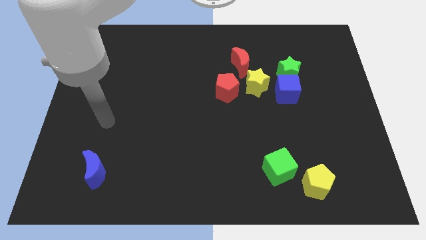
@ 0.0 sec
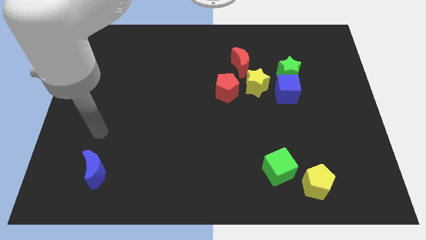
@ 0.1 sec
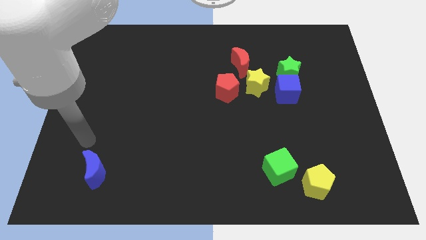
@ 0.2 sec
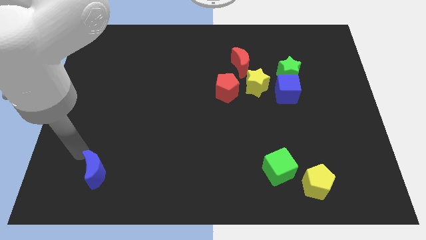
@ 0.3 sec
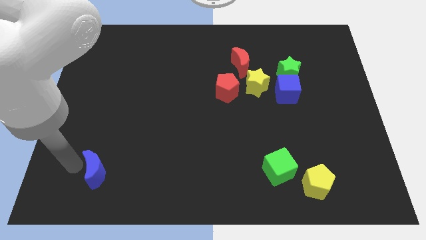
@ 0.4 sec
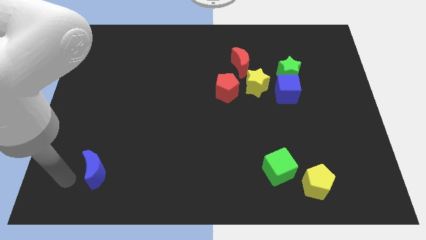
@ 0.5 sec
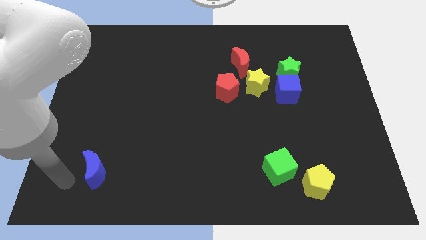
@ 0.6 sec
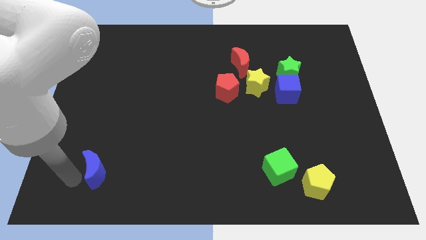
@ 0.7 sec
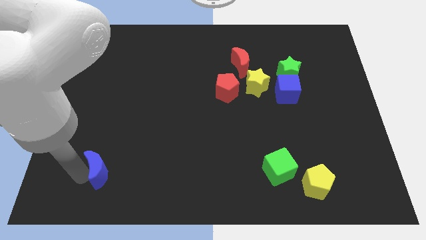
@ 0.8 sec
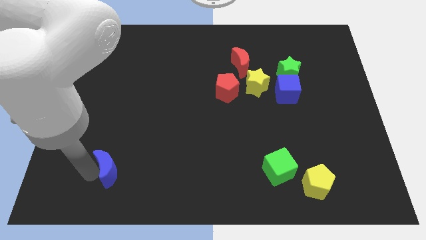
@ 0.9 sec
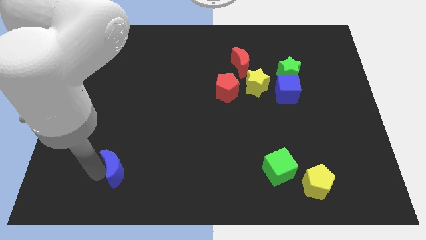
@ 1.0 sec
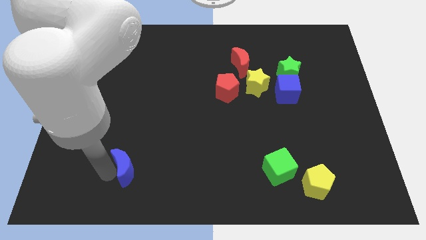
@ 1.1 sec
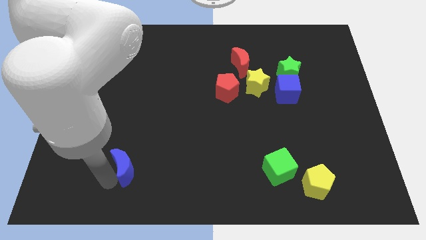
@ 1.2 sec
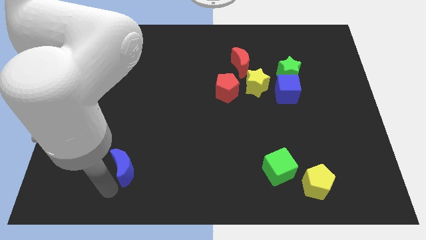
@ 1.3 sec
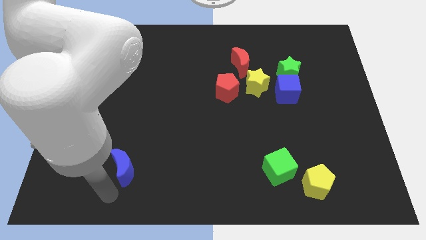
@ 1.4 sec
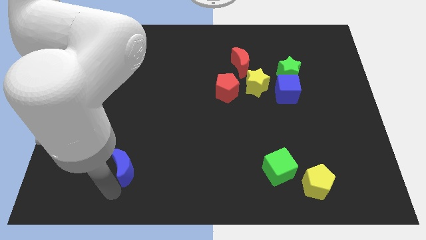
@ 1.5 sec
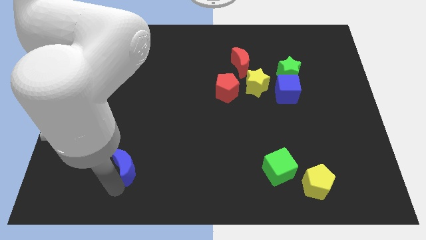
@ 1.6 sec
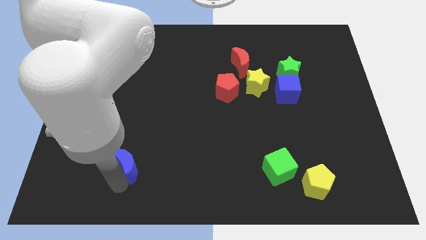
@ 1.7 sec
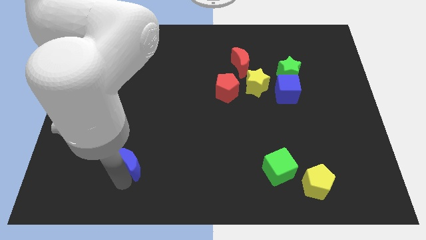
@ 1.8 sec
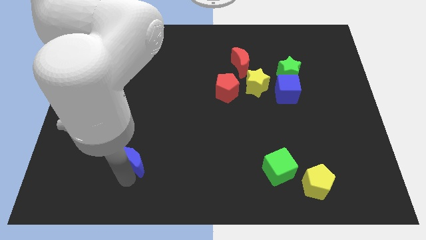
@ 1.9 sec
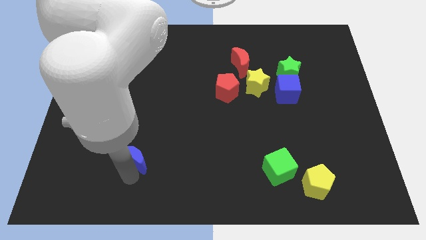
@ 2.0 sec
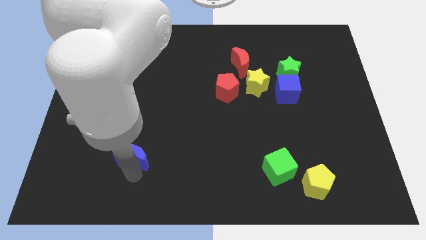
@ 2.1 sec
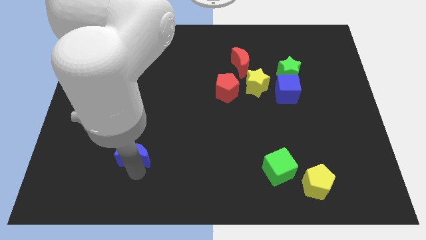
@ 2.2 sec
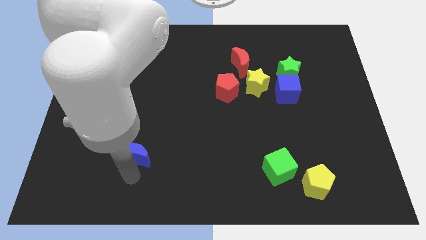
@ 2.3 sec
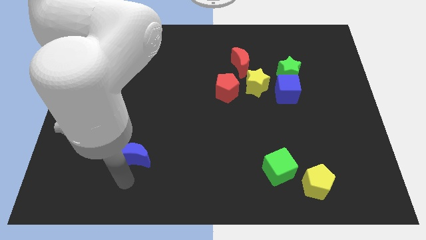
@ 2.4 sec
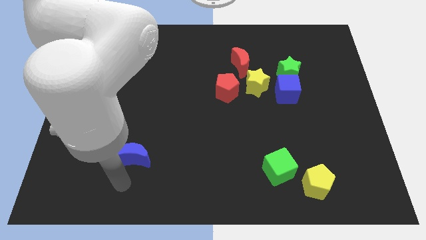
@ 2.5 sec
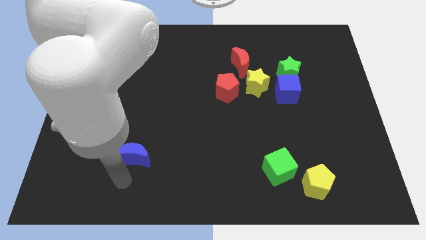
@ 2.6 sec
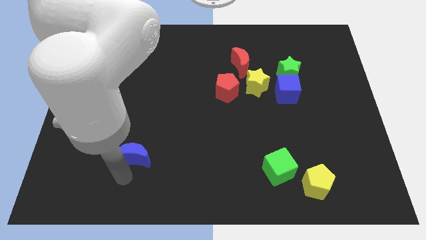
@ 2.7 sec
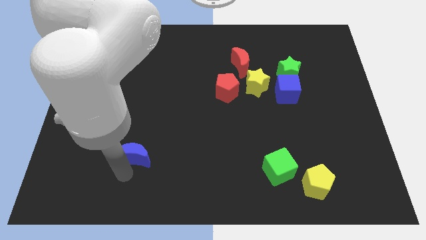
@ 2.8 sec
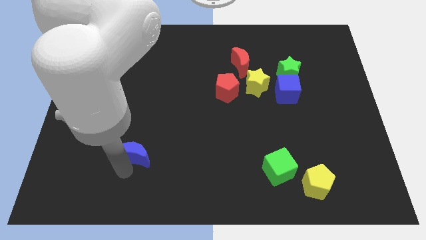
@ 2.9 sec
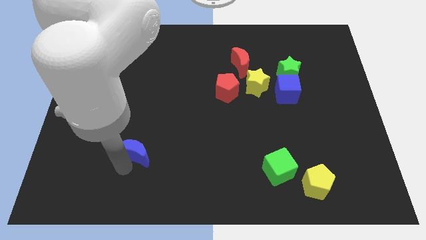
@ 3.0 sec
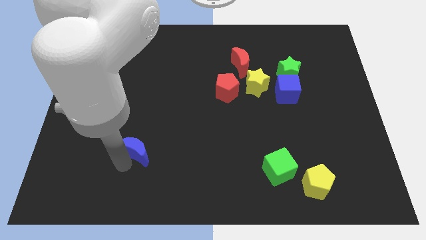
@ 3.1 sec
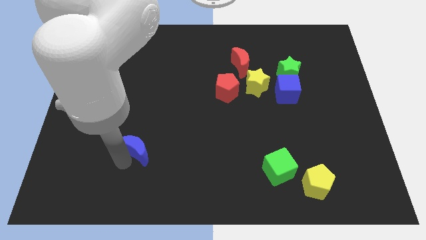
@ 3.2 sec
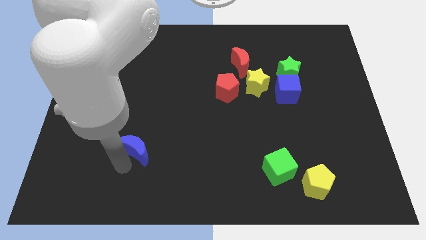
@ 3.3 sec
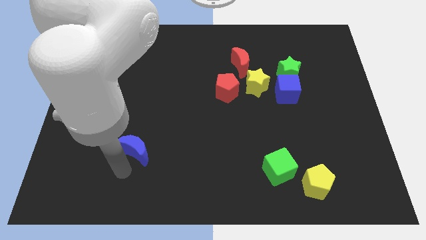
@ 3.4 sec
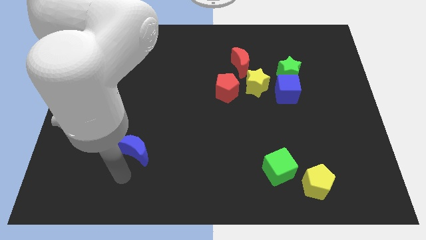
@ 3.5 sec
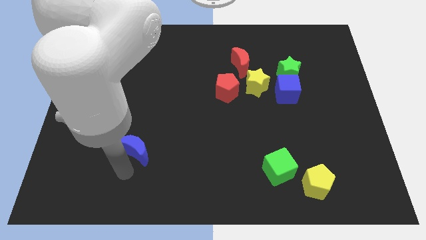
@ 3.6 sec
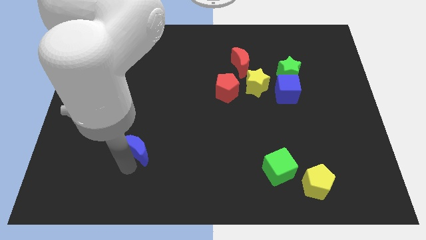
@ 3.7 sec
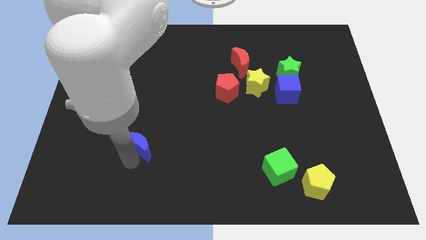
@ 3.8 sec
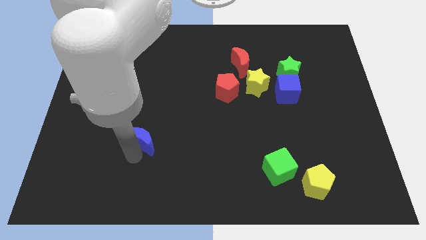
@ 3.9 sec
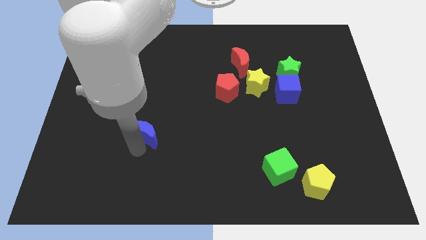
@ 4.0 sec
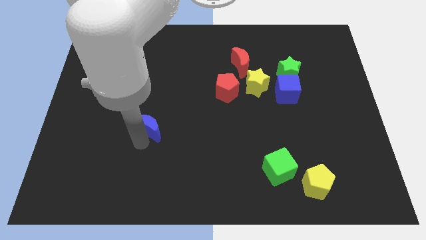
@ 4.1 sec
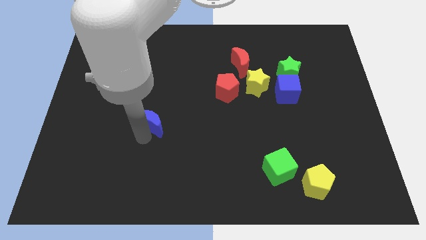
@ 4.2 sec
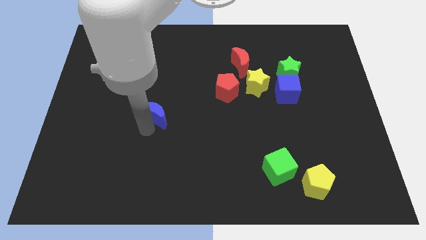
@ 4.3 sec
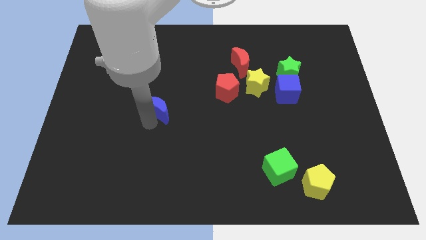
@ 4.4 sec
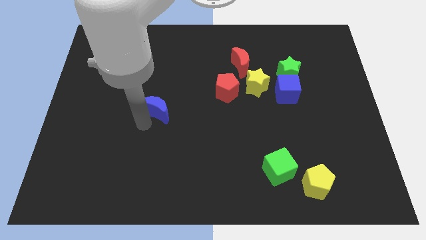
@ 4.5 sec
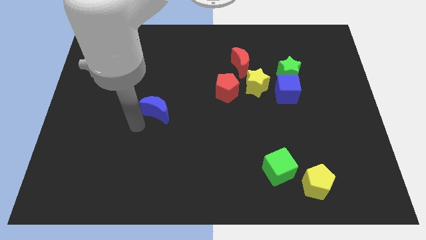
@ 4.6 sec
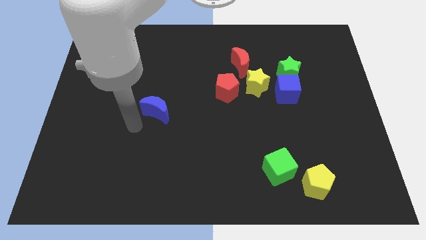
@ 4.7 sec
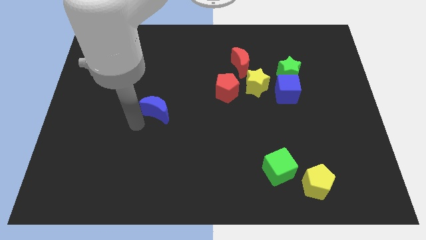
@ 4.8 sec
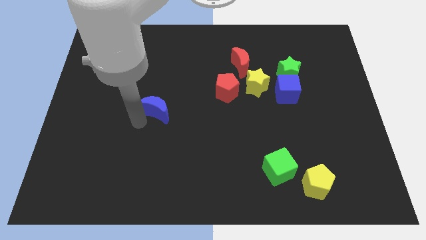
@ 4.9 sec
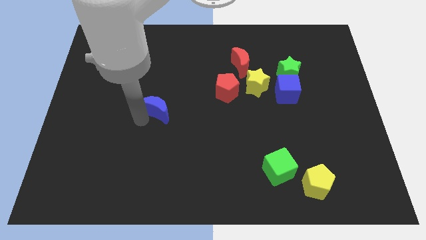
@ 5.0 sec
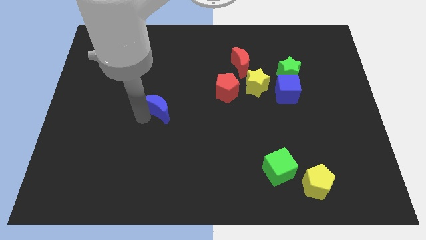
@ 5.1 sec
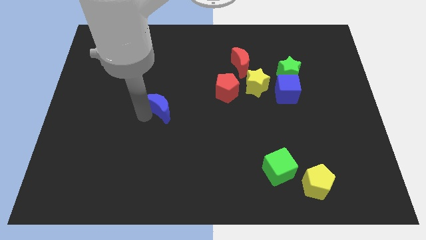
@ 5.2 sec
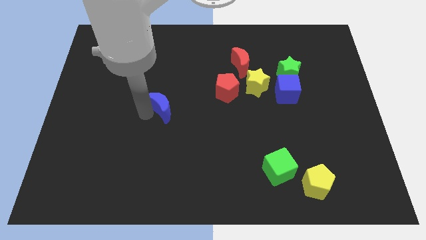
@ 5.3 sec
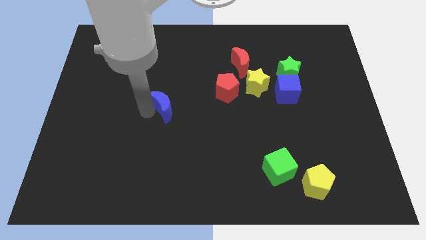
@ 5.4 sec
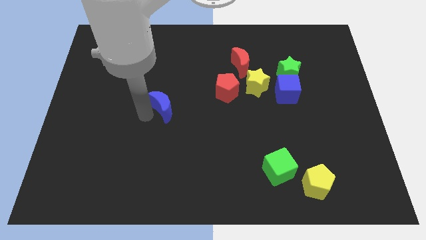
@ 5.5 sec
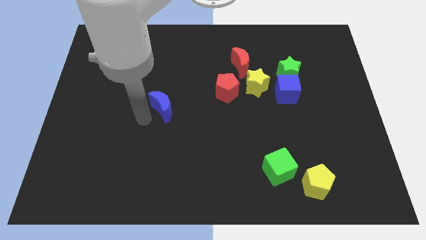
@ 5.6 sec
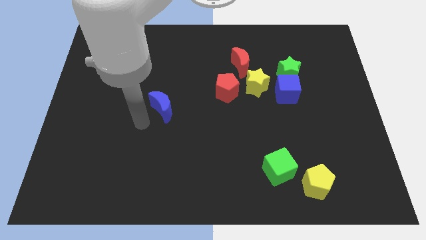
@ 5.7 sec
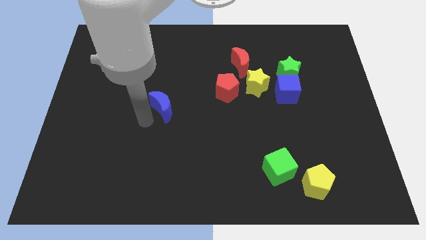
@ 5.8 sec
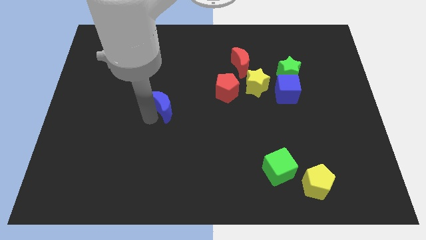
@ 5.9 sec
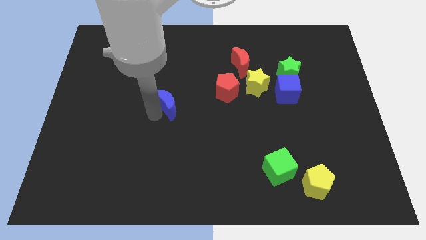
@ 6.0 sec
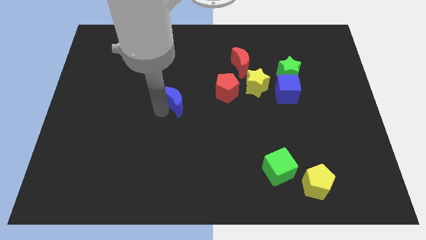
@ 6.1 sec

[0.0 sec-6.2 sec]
push the blue moon to the left side of the red pentagon

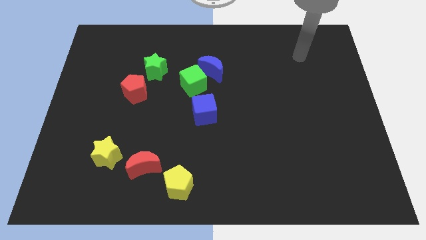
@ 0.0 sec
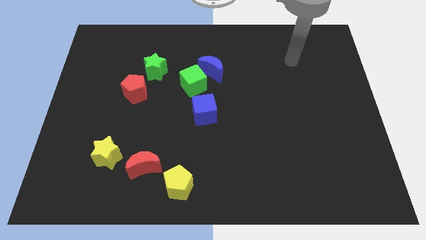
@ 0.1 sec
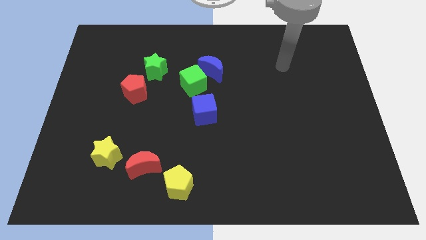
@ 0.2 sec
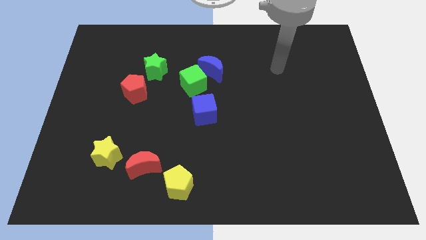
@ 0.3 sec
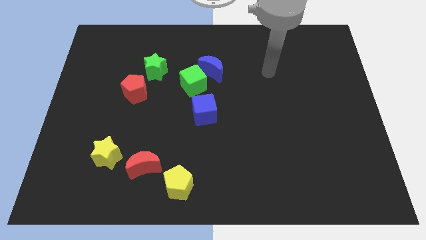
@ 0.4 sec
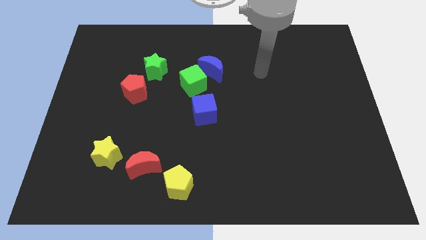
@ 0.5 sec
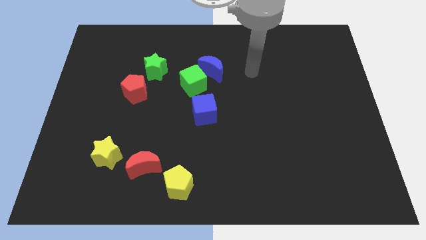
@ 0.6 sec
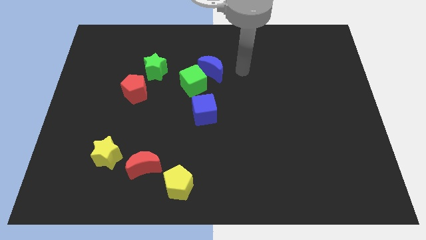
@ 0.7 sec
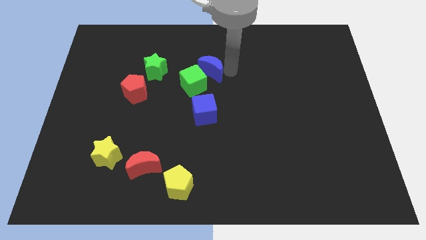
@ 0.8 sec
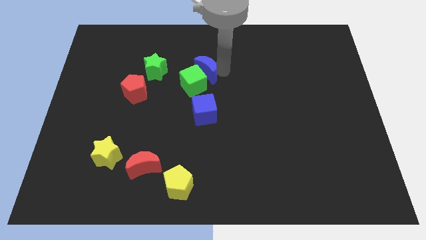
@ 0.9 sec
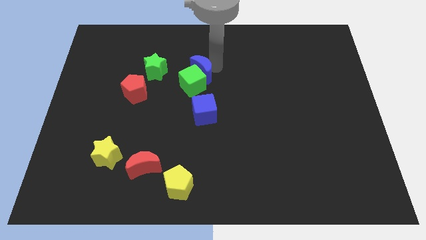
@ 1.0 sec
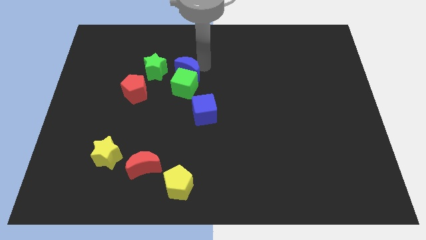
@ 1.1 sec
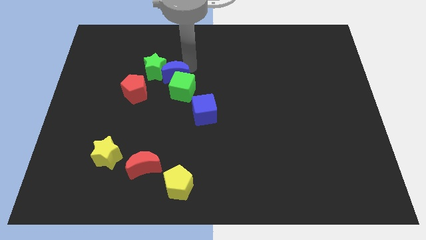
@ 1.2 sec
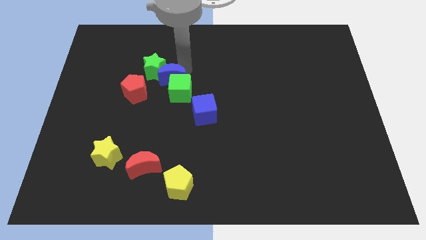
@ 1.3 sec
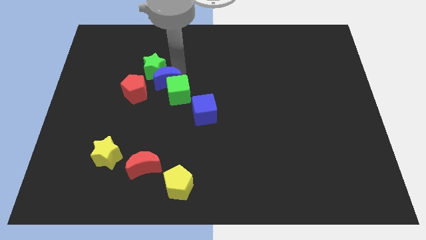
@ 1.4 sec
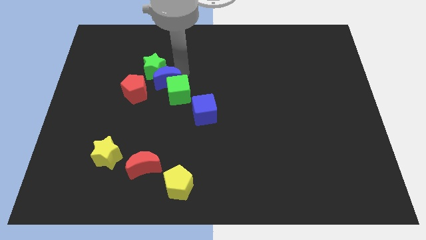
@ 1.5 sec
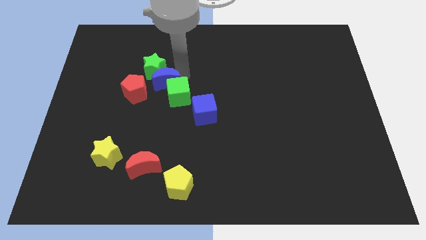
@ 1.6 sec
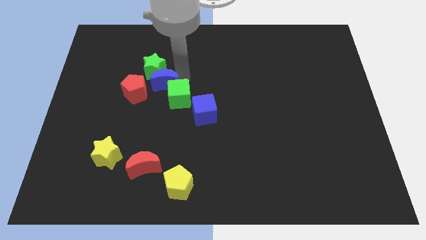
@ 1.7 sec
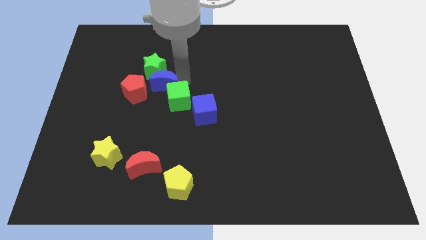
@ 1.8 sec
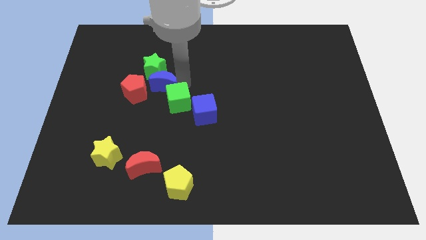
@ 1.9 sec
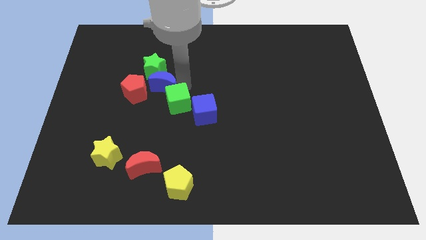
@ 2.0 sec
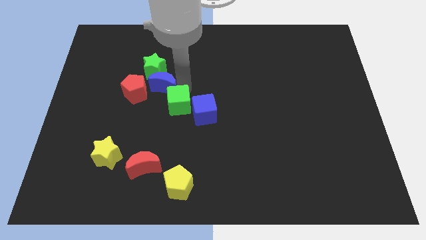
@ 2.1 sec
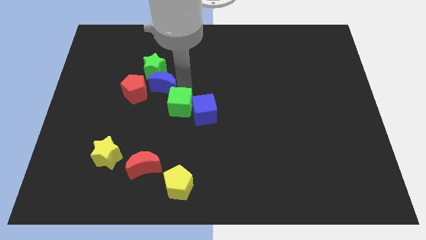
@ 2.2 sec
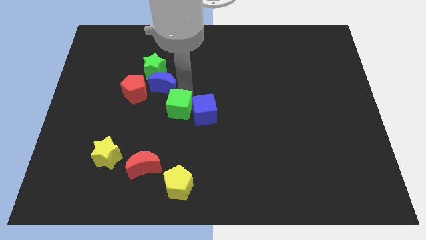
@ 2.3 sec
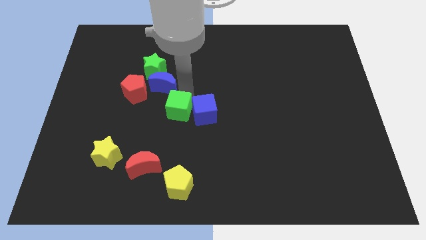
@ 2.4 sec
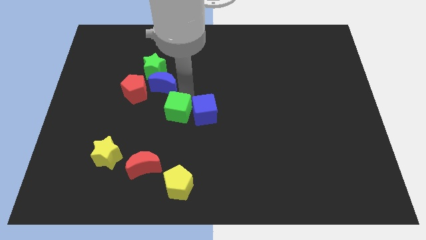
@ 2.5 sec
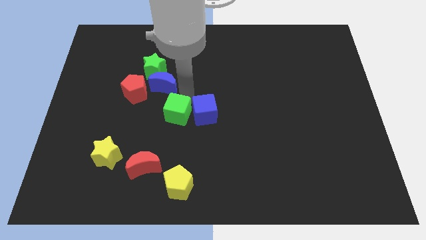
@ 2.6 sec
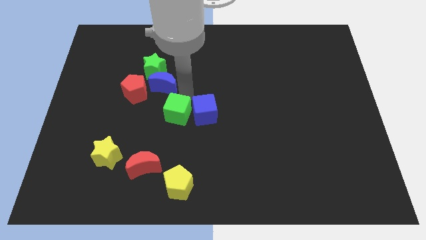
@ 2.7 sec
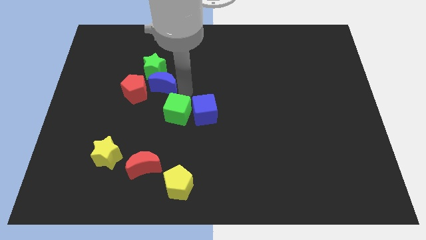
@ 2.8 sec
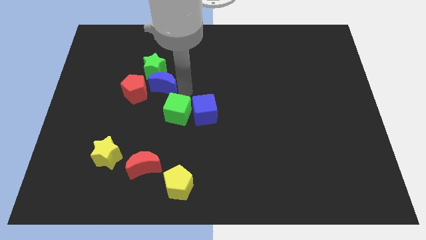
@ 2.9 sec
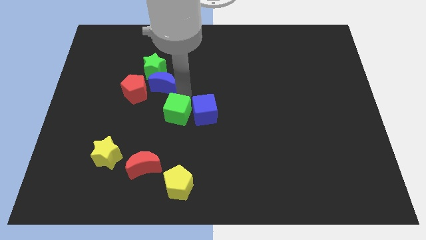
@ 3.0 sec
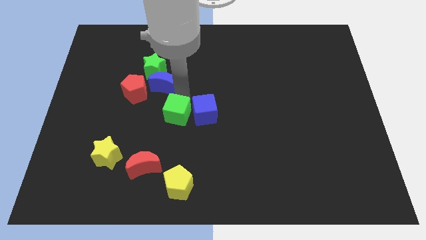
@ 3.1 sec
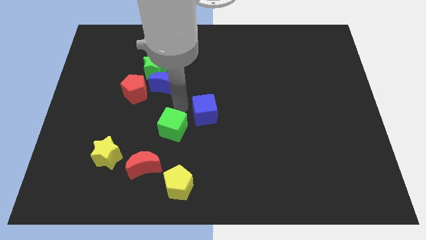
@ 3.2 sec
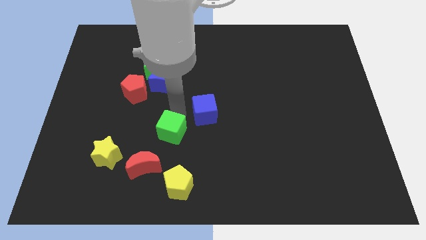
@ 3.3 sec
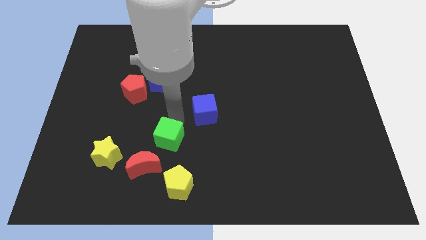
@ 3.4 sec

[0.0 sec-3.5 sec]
push the green cube to the right side of the yellow star
